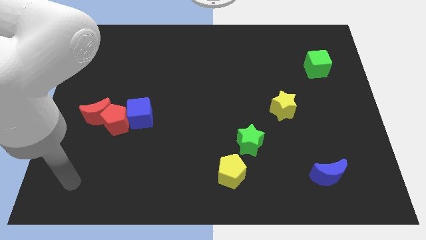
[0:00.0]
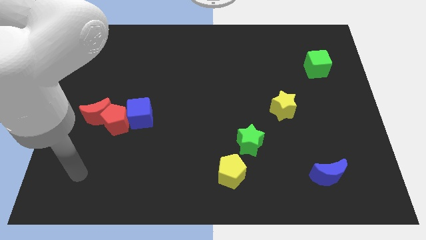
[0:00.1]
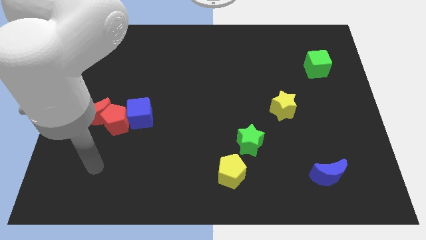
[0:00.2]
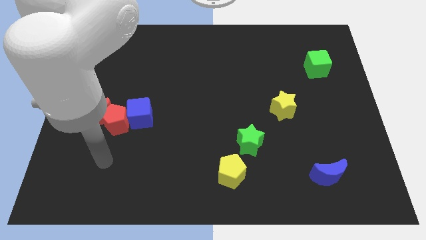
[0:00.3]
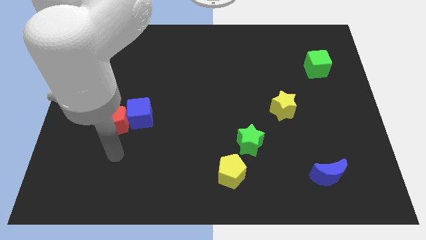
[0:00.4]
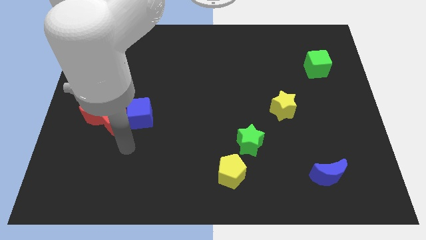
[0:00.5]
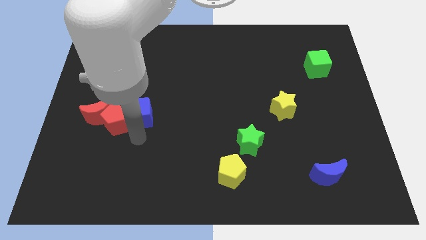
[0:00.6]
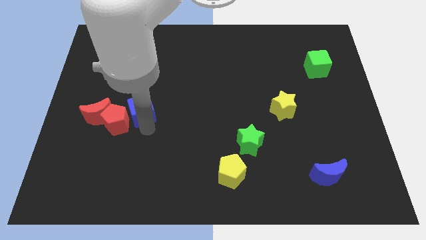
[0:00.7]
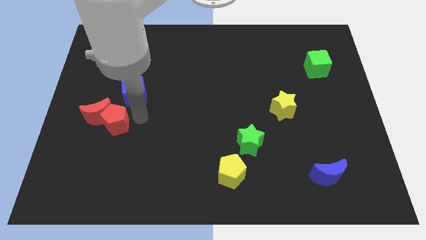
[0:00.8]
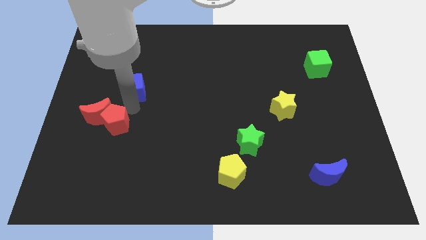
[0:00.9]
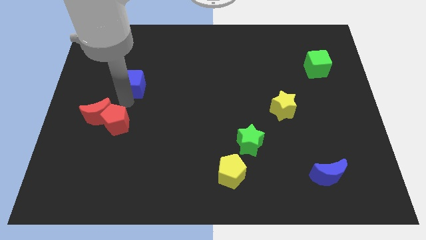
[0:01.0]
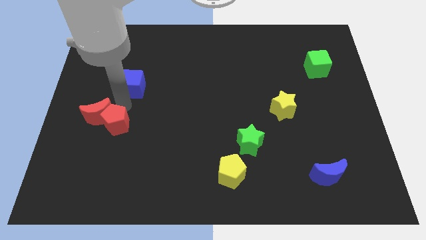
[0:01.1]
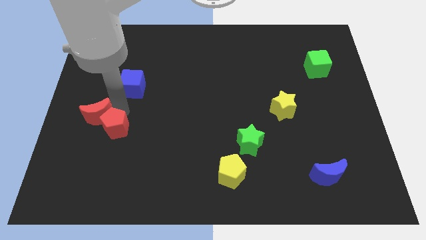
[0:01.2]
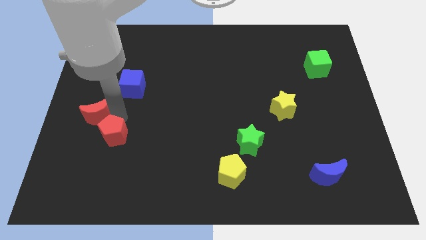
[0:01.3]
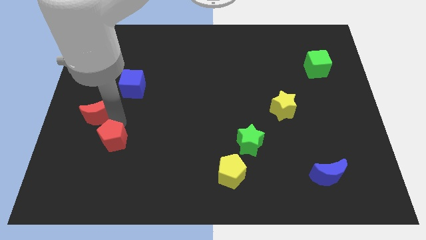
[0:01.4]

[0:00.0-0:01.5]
pull the red pentagon apart from the red moon and blue cube

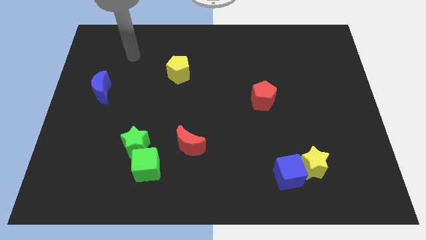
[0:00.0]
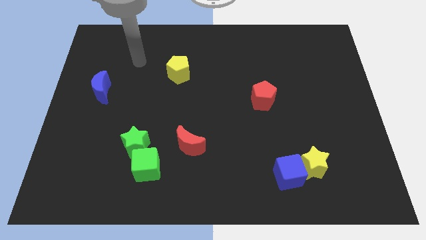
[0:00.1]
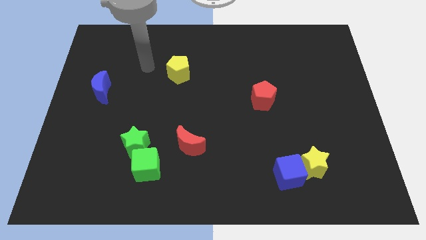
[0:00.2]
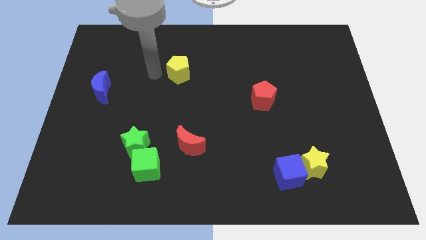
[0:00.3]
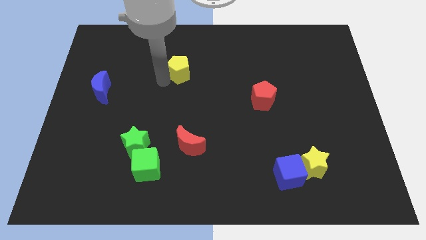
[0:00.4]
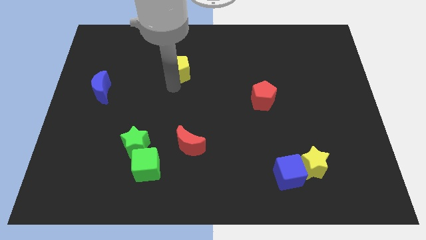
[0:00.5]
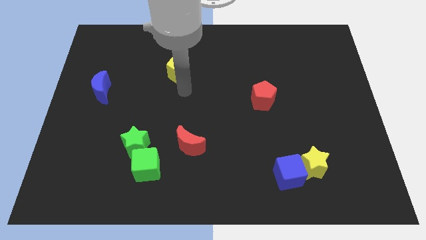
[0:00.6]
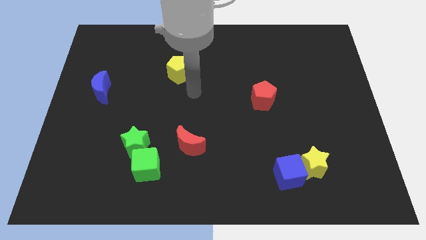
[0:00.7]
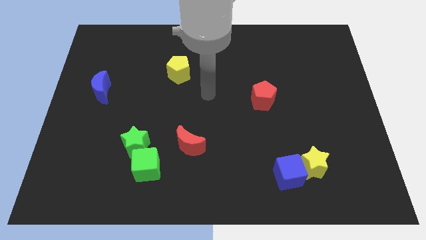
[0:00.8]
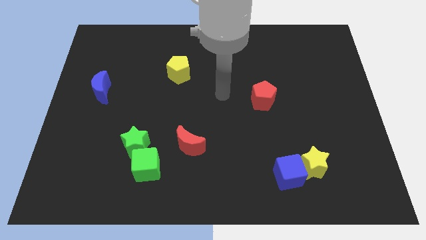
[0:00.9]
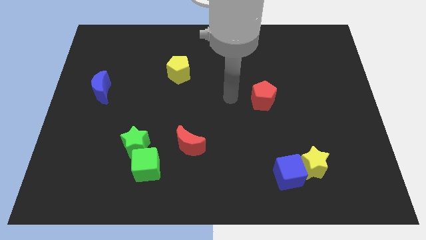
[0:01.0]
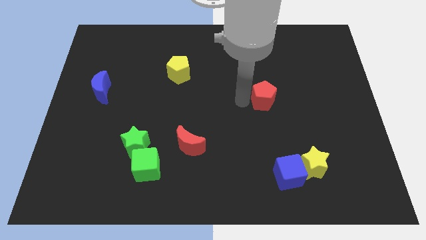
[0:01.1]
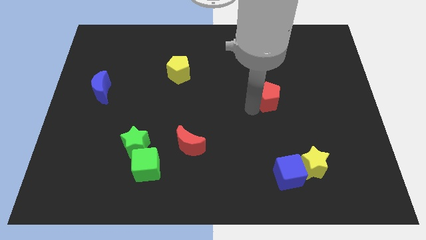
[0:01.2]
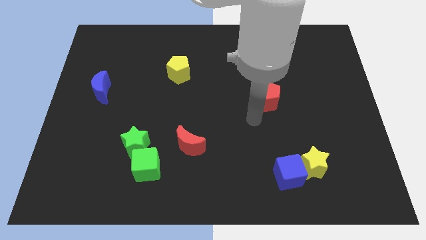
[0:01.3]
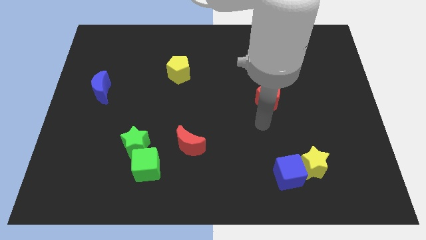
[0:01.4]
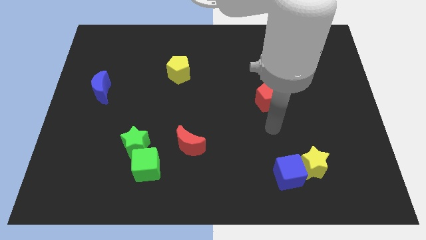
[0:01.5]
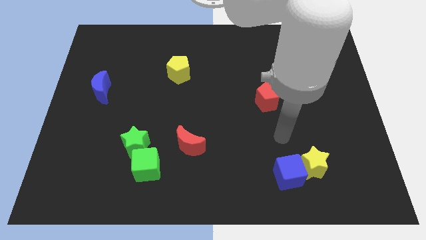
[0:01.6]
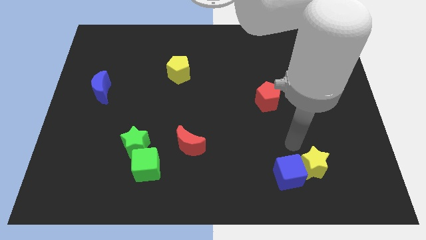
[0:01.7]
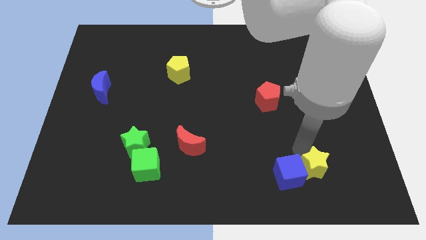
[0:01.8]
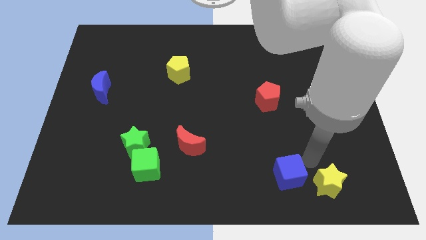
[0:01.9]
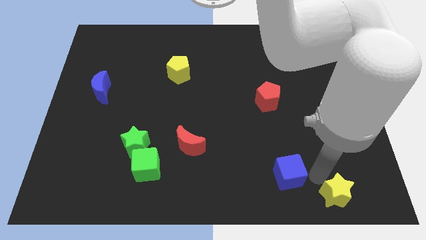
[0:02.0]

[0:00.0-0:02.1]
move the blue cube away from the yellow star

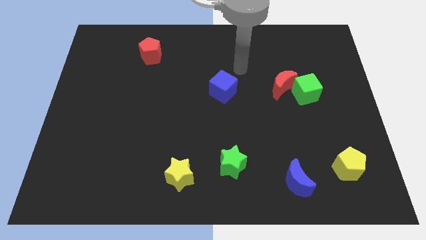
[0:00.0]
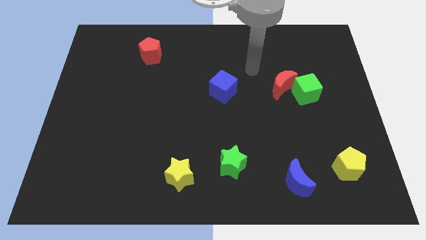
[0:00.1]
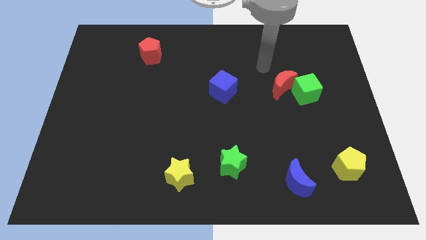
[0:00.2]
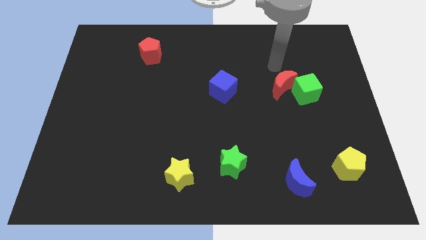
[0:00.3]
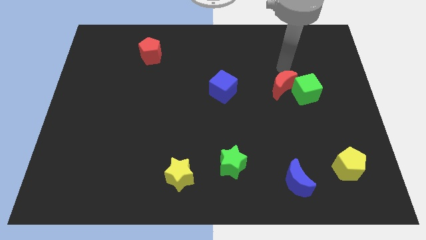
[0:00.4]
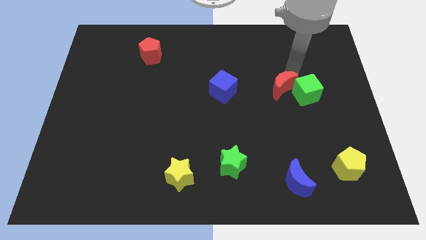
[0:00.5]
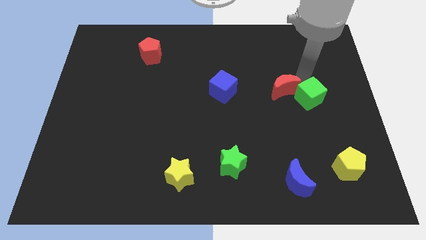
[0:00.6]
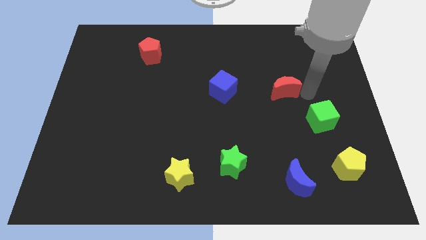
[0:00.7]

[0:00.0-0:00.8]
separate the red moon from the green cube

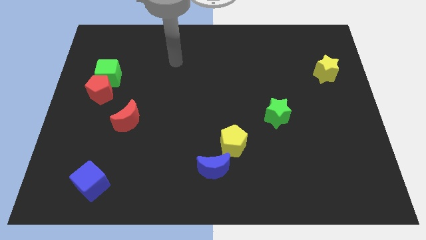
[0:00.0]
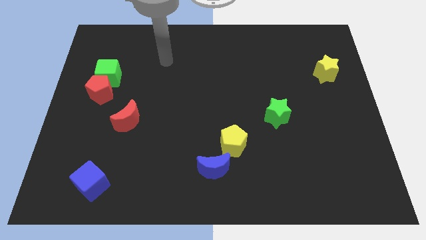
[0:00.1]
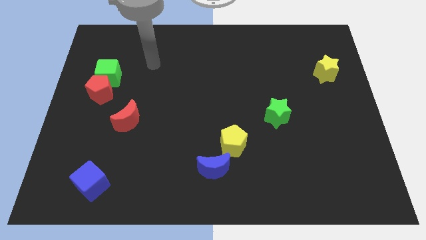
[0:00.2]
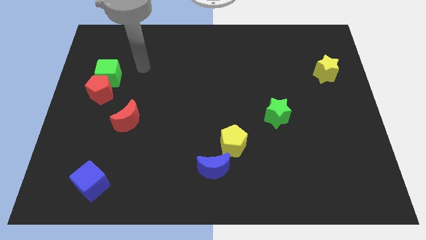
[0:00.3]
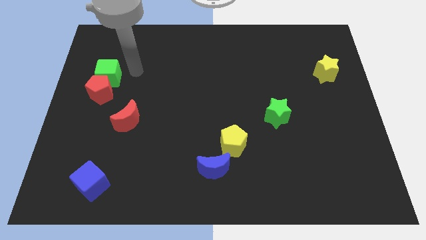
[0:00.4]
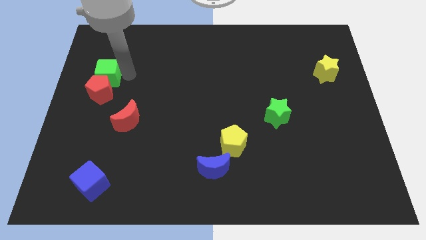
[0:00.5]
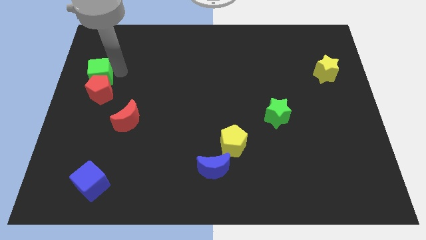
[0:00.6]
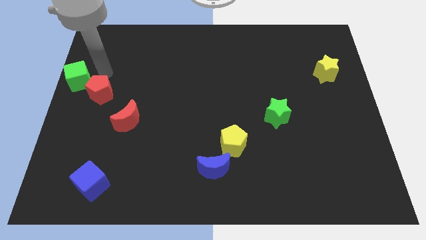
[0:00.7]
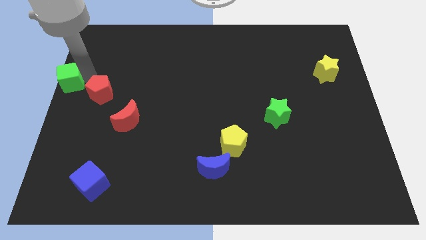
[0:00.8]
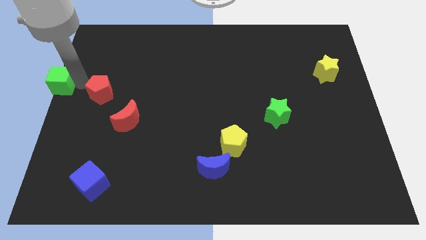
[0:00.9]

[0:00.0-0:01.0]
move the red pentagon away from the green cube

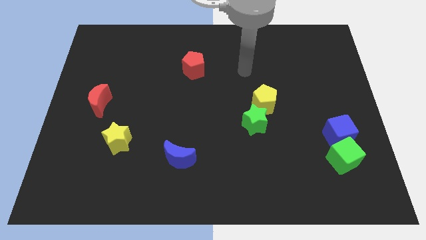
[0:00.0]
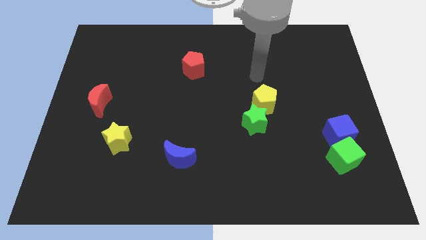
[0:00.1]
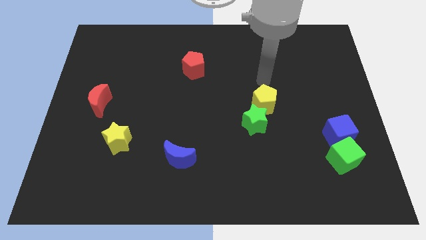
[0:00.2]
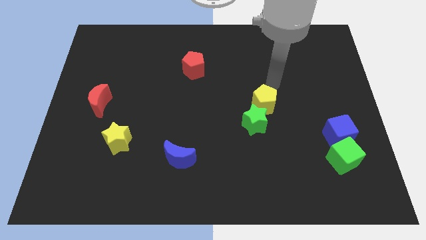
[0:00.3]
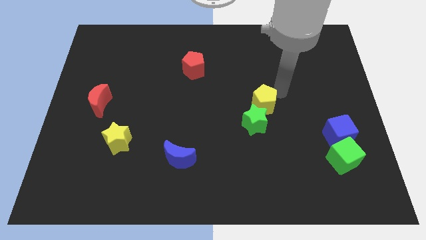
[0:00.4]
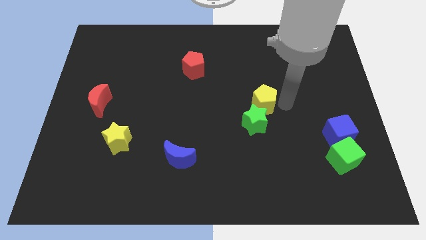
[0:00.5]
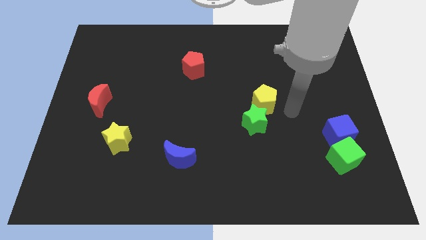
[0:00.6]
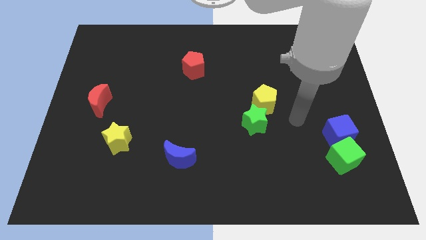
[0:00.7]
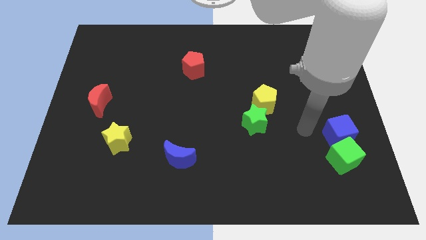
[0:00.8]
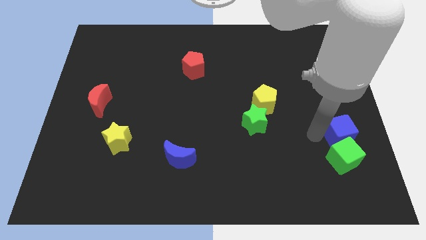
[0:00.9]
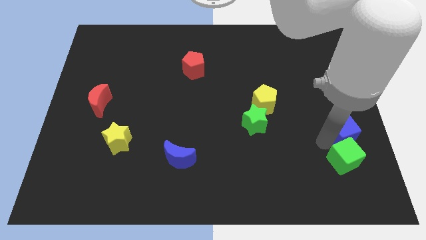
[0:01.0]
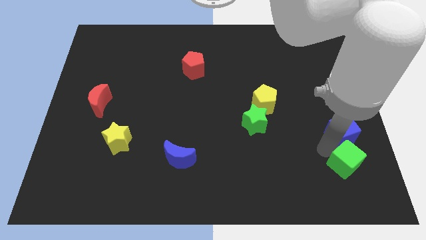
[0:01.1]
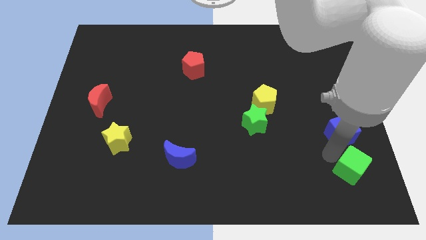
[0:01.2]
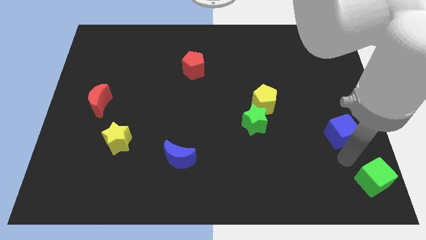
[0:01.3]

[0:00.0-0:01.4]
pull the blue cube apart from the green cube

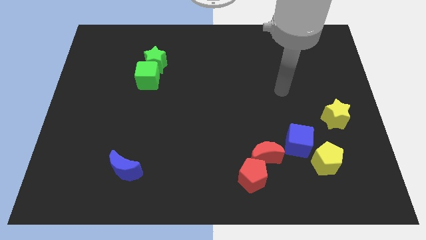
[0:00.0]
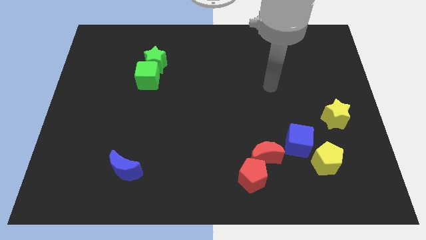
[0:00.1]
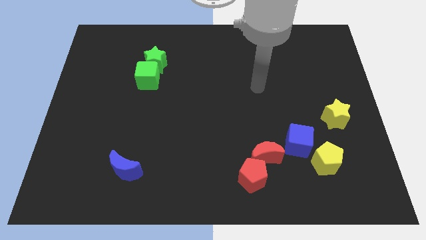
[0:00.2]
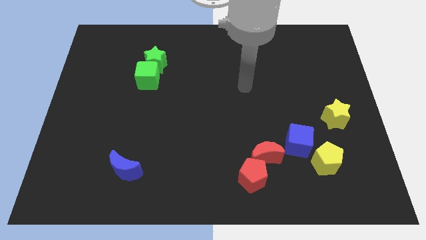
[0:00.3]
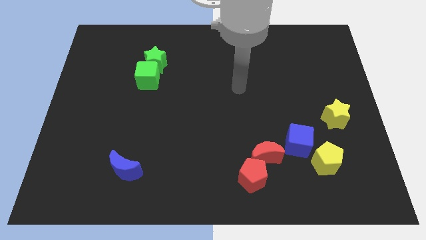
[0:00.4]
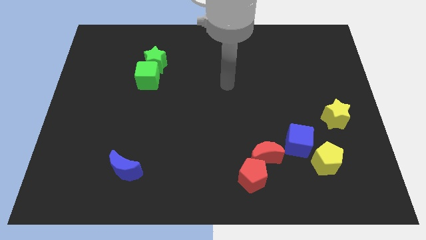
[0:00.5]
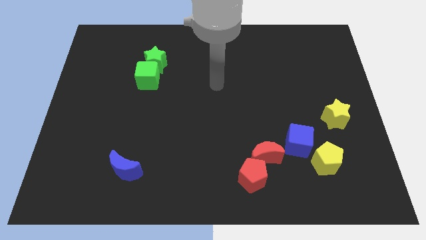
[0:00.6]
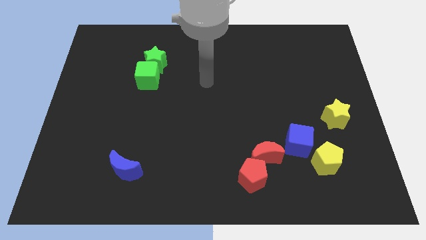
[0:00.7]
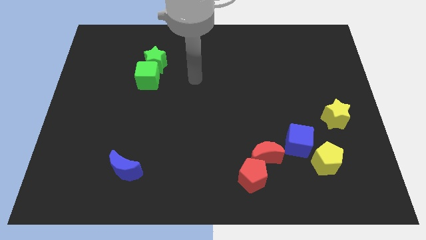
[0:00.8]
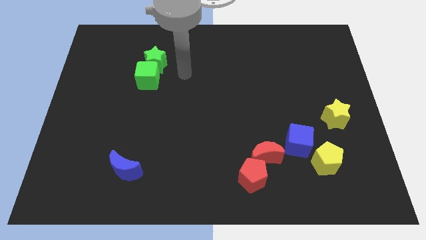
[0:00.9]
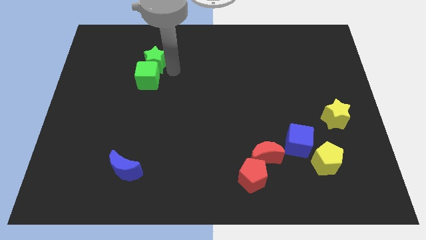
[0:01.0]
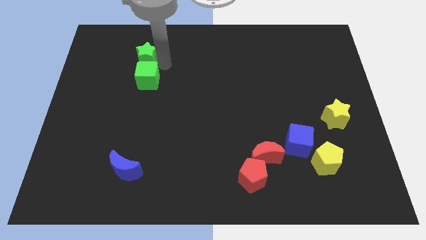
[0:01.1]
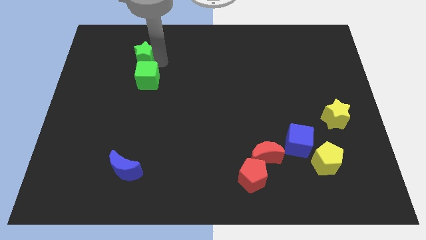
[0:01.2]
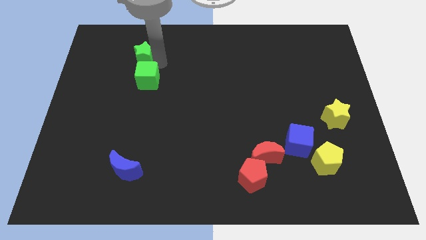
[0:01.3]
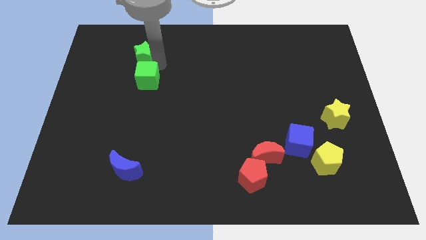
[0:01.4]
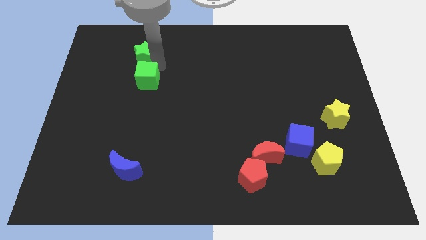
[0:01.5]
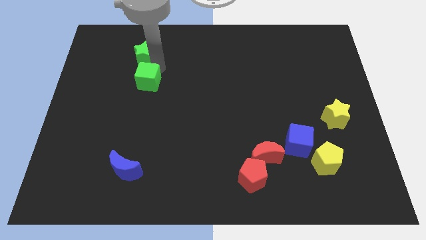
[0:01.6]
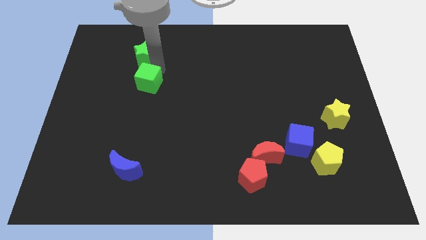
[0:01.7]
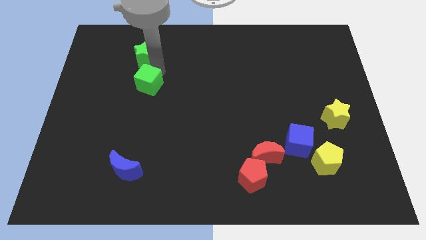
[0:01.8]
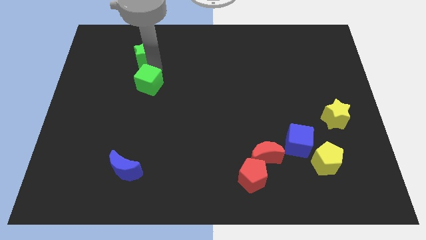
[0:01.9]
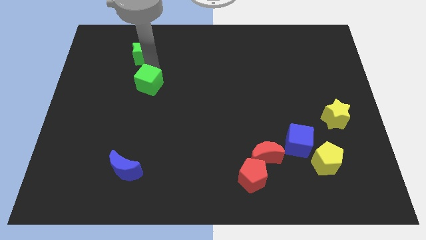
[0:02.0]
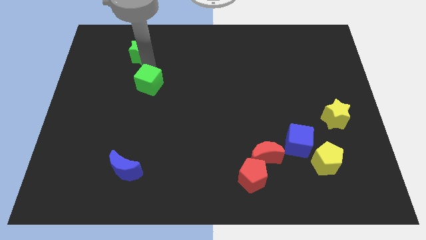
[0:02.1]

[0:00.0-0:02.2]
move the green cube away from the green star

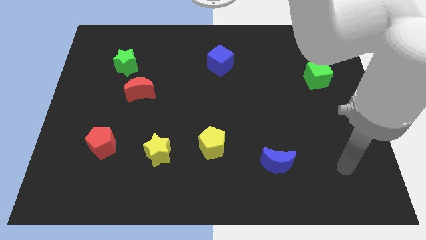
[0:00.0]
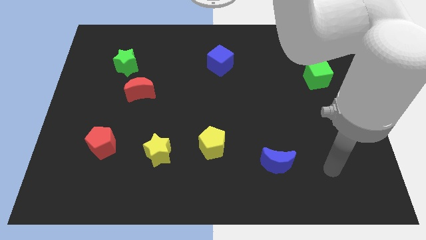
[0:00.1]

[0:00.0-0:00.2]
separate the red moon from the green star
